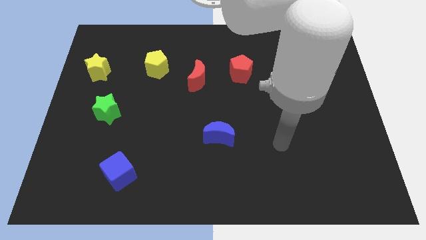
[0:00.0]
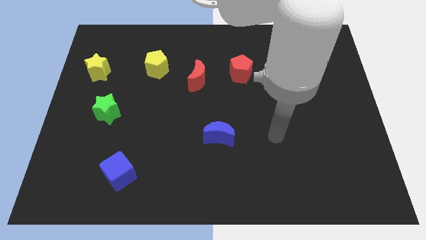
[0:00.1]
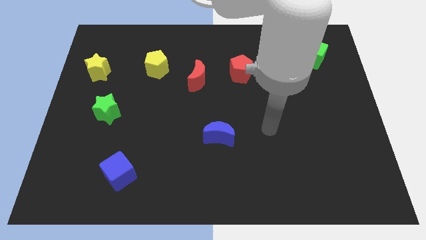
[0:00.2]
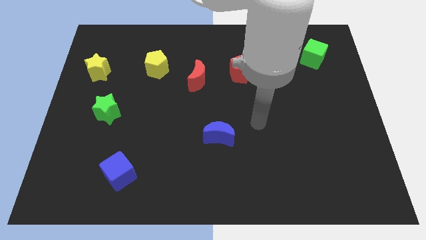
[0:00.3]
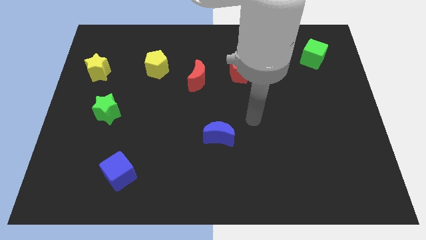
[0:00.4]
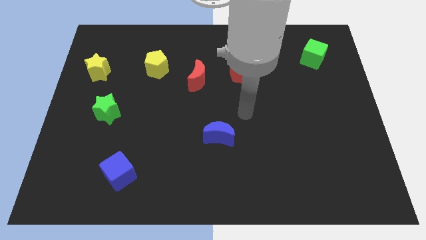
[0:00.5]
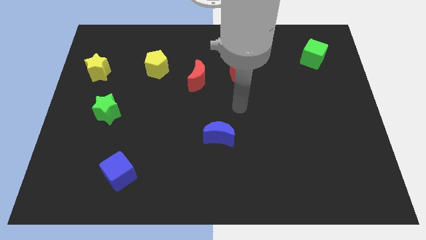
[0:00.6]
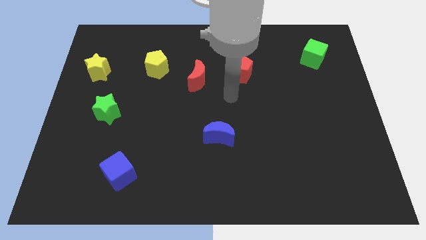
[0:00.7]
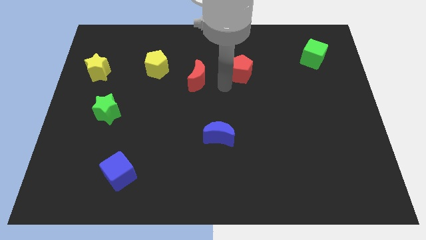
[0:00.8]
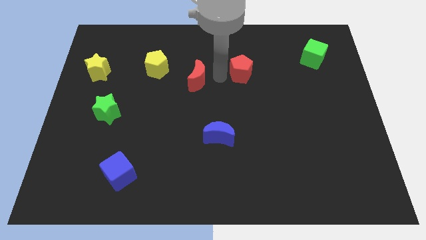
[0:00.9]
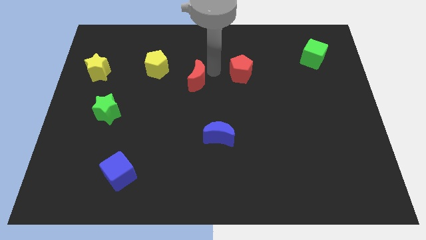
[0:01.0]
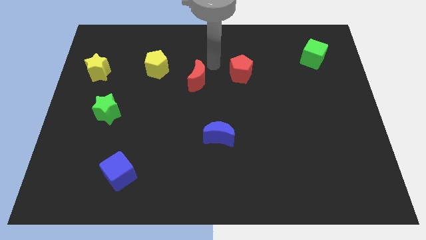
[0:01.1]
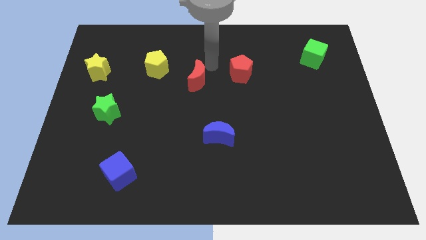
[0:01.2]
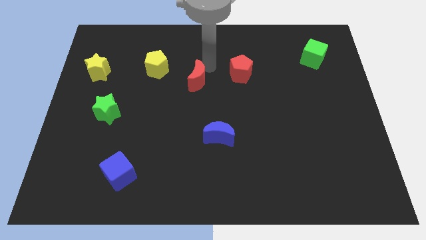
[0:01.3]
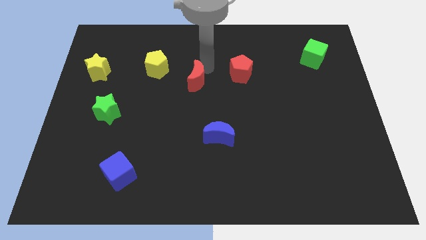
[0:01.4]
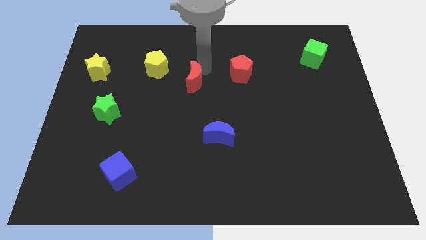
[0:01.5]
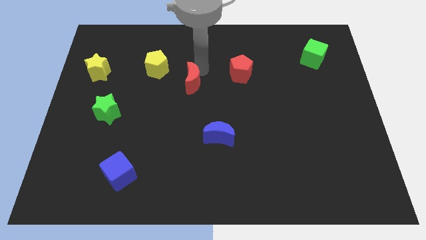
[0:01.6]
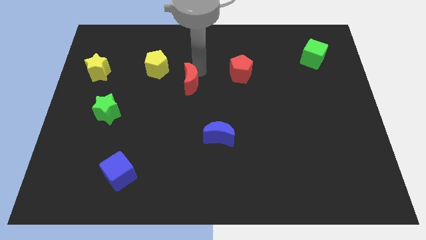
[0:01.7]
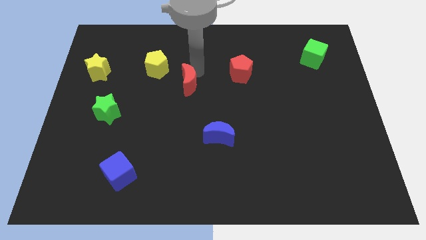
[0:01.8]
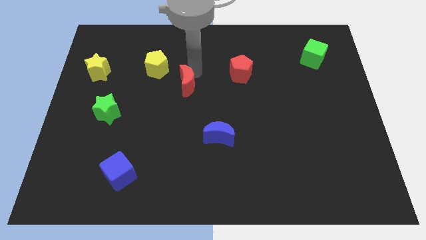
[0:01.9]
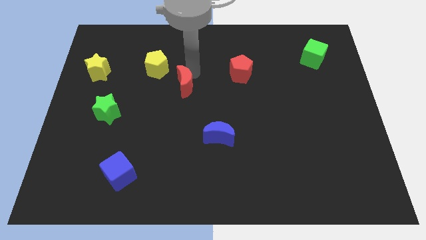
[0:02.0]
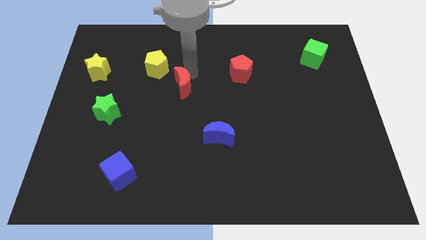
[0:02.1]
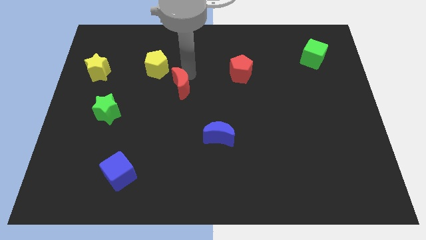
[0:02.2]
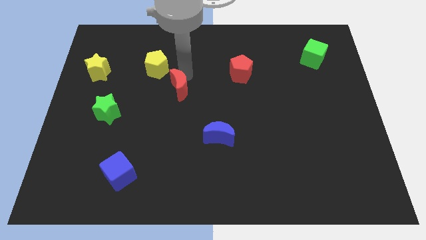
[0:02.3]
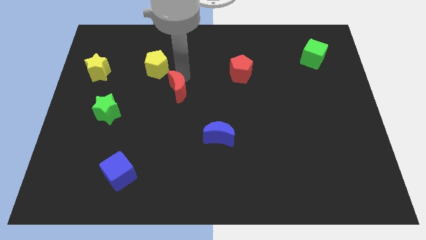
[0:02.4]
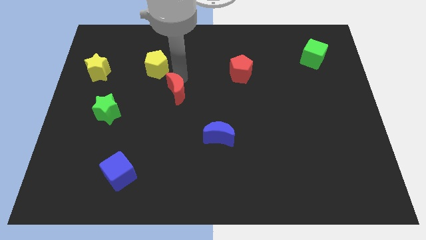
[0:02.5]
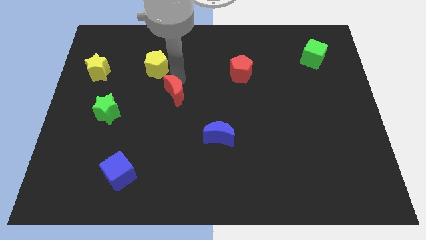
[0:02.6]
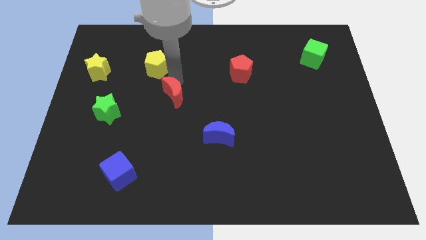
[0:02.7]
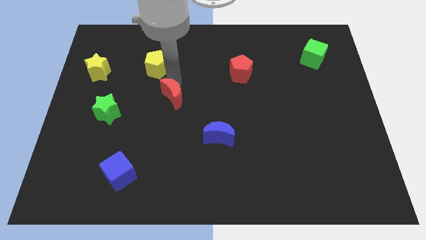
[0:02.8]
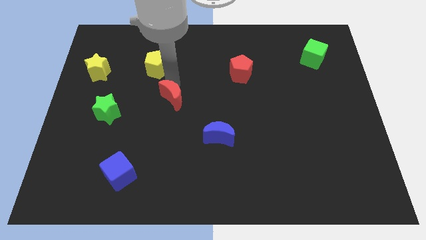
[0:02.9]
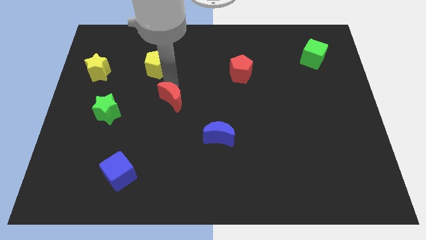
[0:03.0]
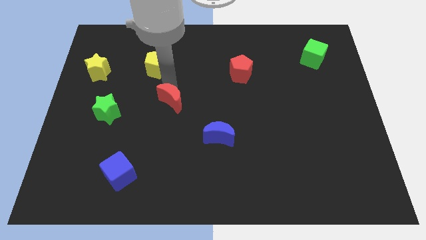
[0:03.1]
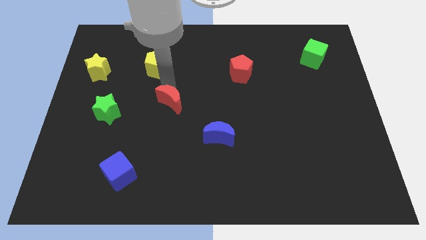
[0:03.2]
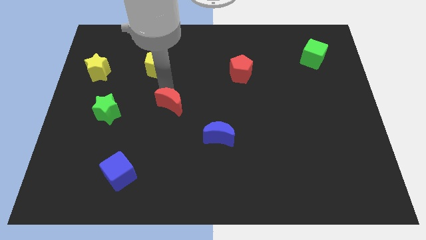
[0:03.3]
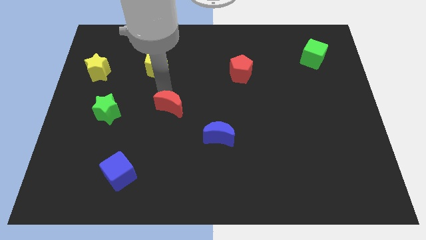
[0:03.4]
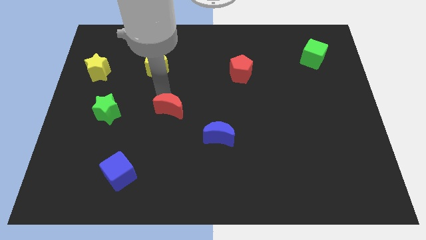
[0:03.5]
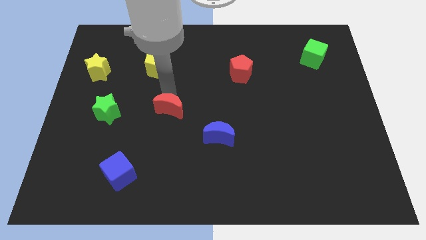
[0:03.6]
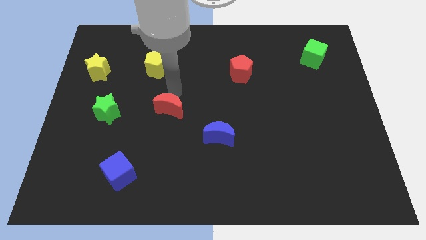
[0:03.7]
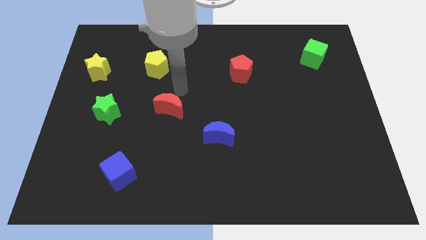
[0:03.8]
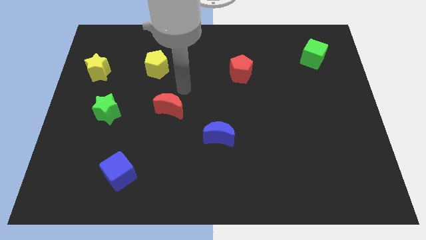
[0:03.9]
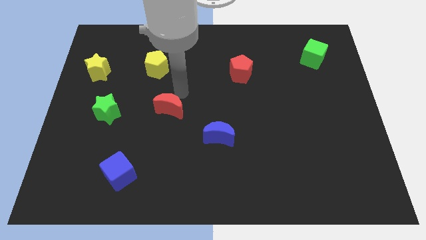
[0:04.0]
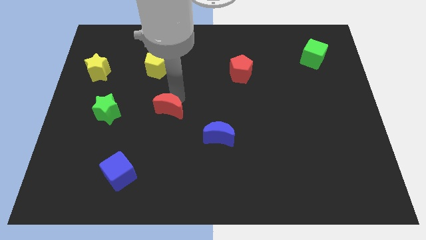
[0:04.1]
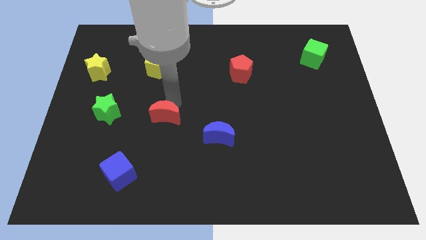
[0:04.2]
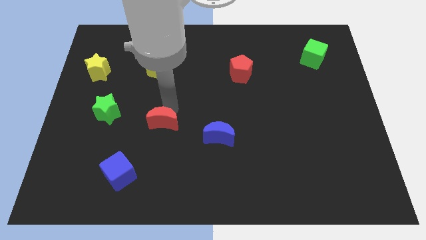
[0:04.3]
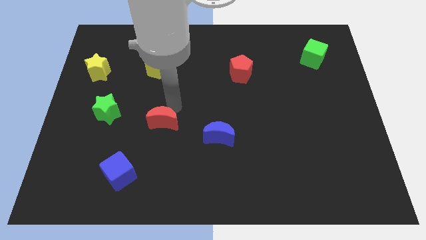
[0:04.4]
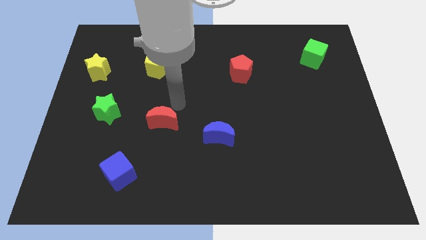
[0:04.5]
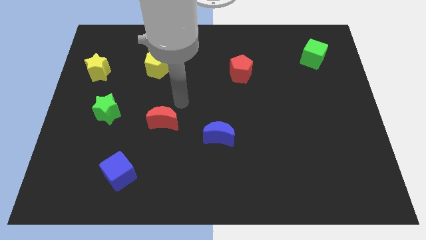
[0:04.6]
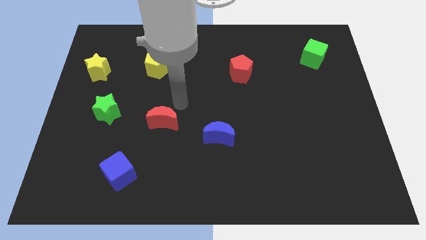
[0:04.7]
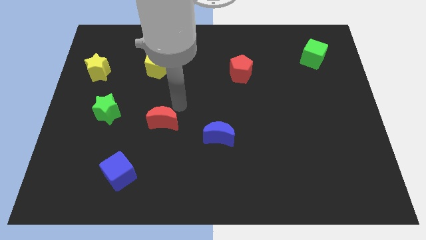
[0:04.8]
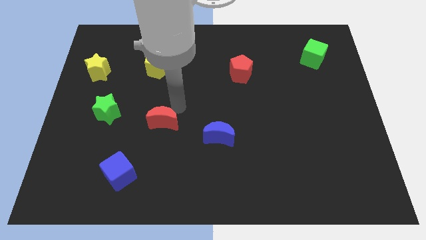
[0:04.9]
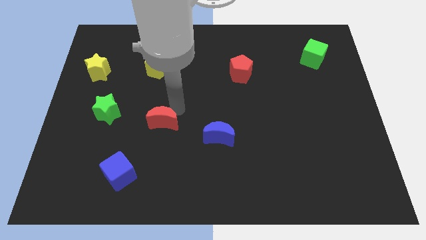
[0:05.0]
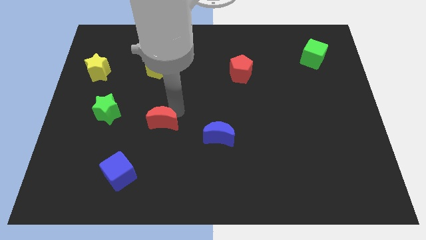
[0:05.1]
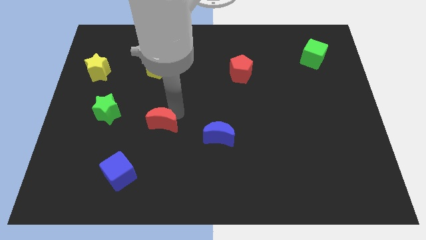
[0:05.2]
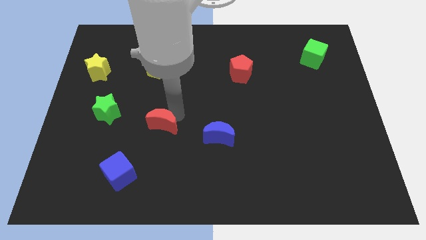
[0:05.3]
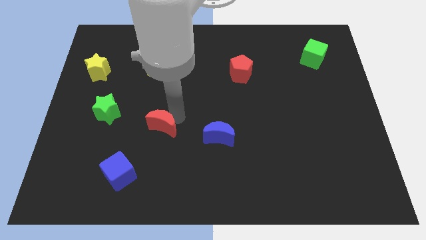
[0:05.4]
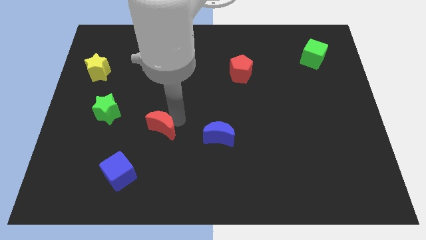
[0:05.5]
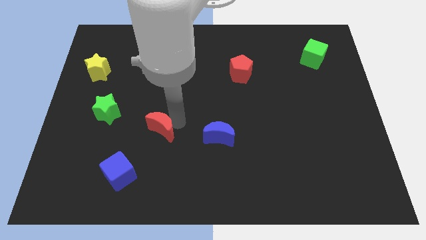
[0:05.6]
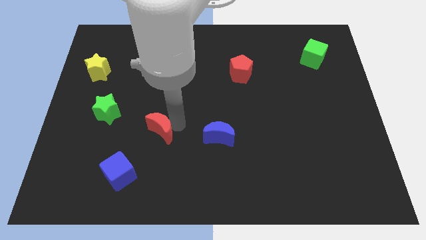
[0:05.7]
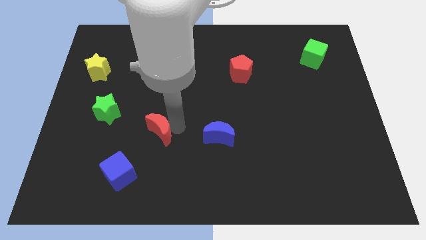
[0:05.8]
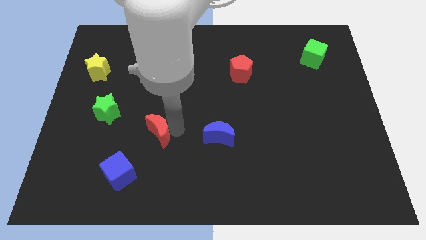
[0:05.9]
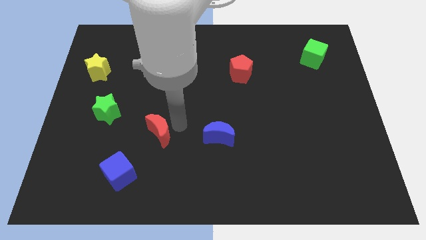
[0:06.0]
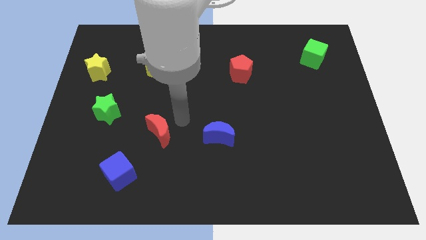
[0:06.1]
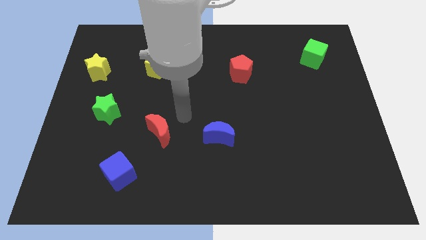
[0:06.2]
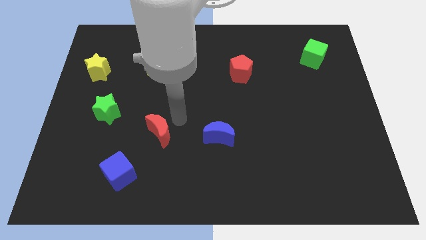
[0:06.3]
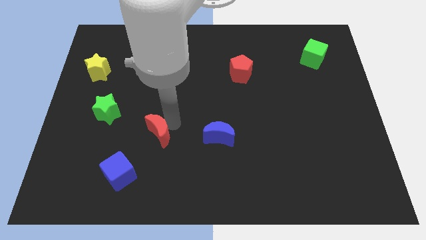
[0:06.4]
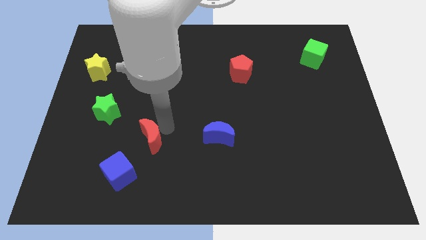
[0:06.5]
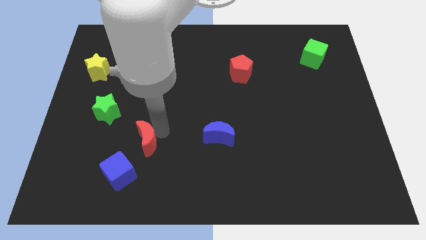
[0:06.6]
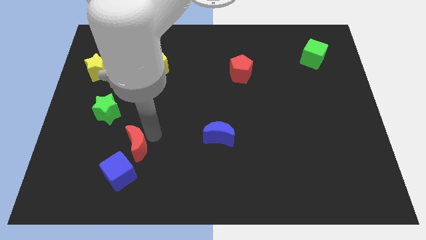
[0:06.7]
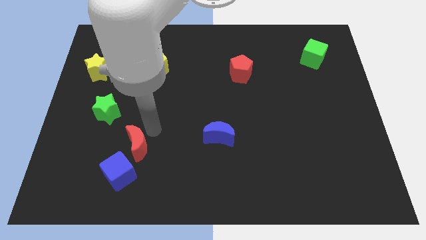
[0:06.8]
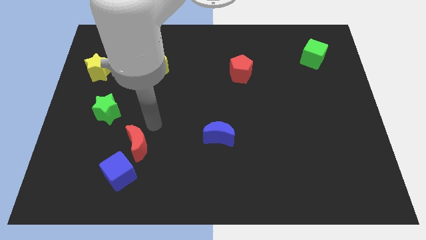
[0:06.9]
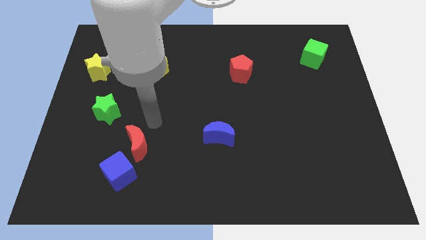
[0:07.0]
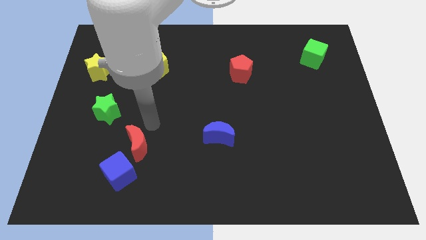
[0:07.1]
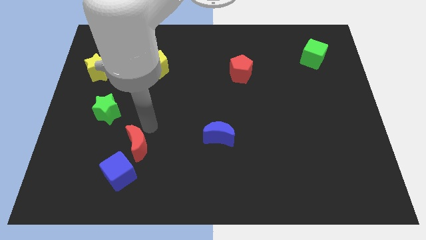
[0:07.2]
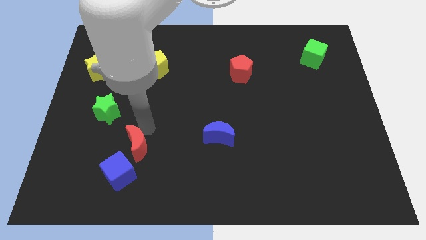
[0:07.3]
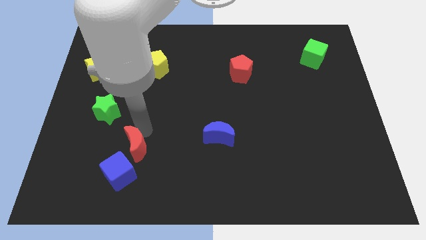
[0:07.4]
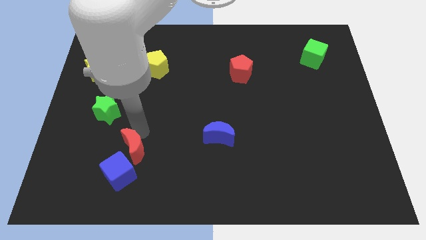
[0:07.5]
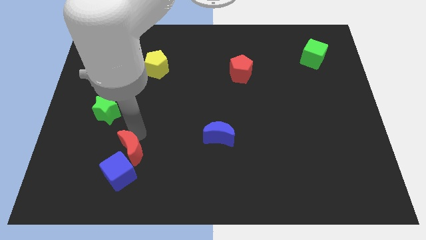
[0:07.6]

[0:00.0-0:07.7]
move the red moon to the blue cube

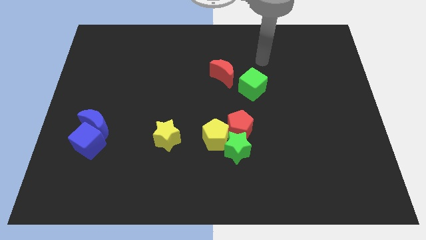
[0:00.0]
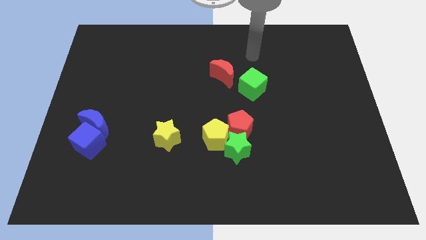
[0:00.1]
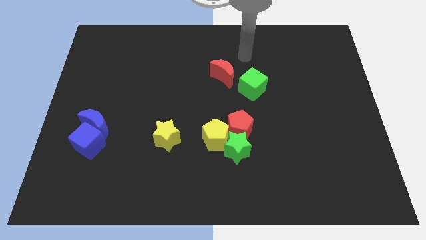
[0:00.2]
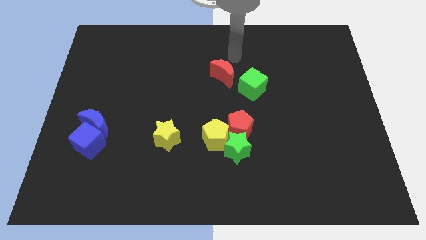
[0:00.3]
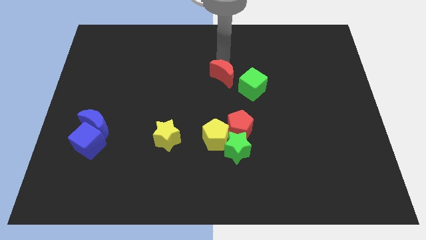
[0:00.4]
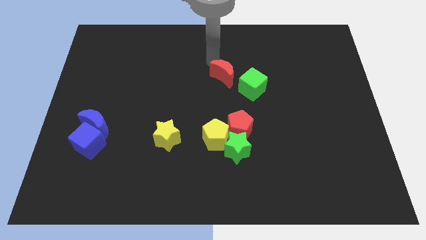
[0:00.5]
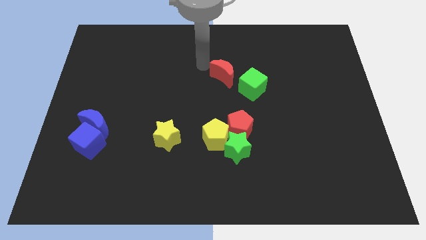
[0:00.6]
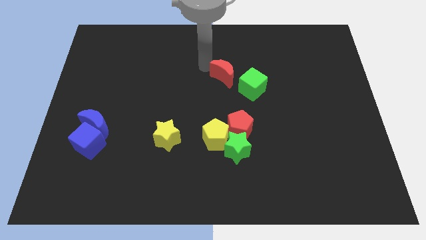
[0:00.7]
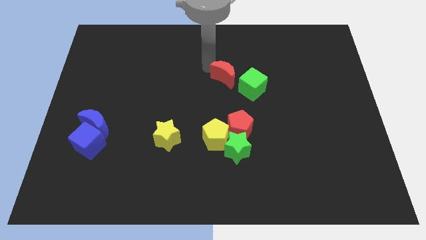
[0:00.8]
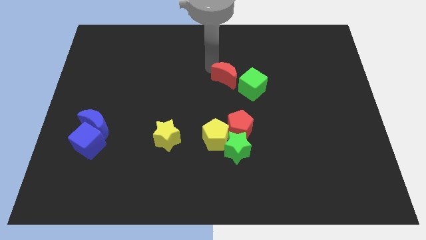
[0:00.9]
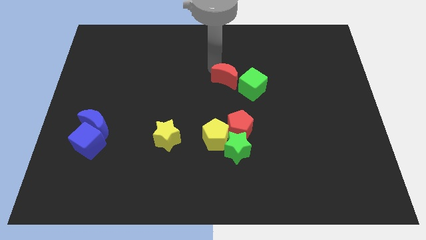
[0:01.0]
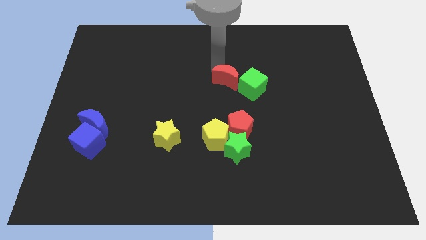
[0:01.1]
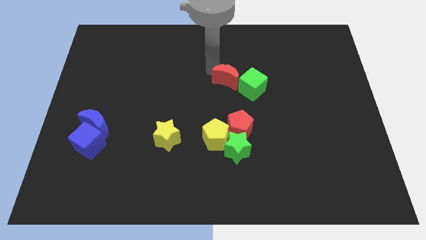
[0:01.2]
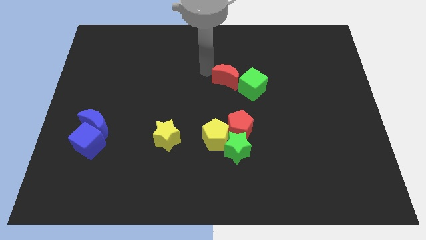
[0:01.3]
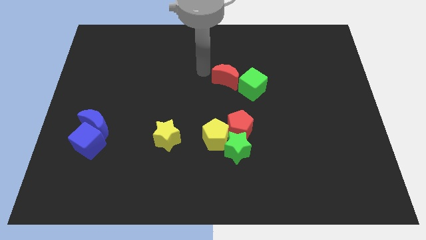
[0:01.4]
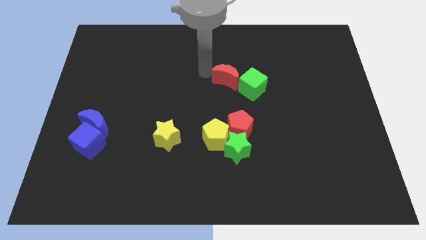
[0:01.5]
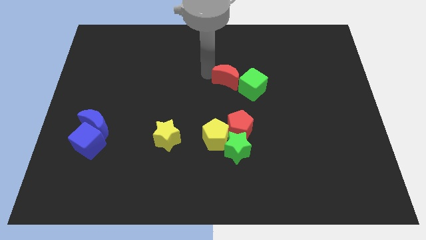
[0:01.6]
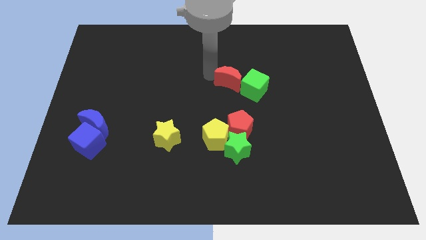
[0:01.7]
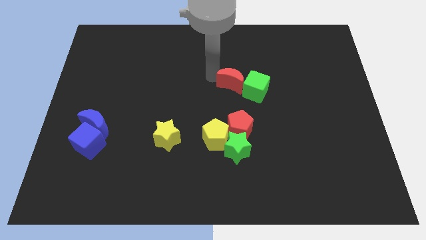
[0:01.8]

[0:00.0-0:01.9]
slide the red moon close to the green cube
